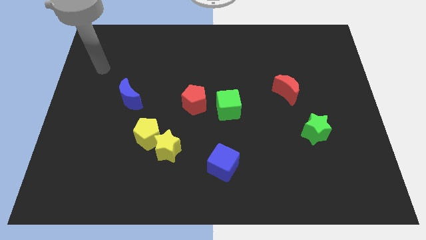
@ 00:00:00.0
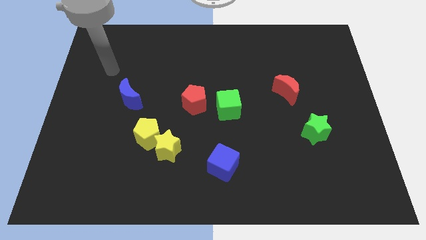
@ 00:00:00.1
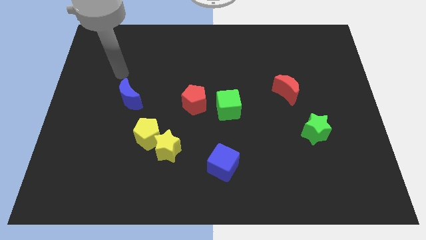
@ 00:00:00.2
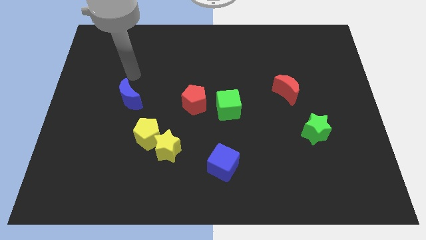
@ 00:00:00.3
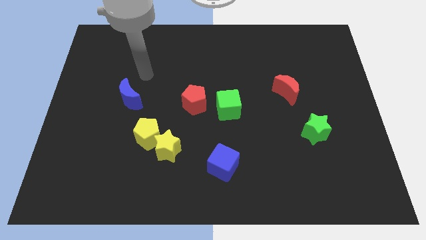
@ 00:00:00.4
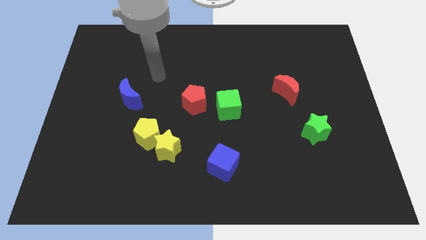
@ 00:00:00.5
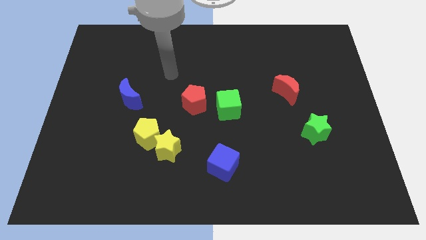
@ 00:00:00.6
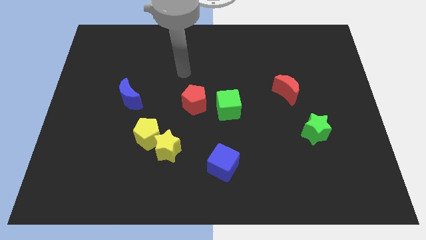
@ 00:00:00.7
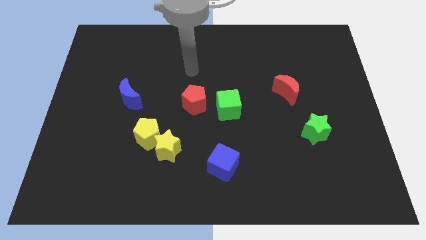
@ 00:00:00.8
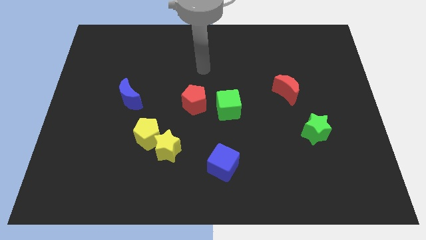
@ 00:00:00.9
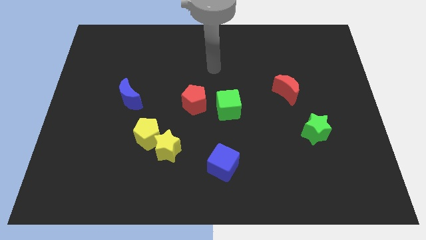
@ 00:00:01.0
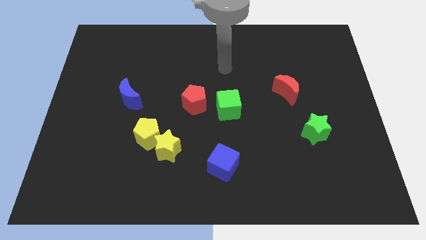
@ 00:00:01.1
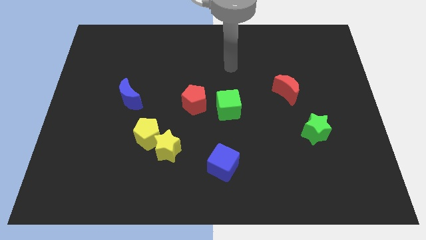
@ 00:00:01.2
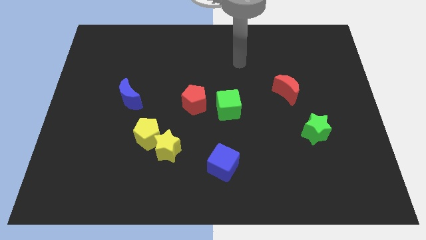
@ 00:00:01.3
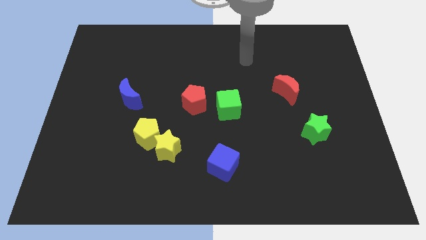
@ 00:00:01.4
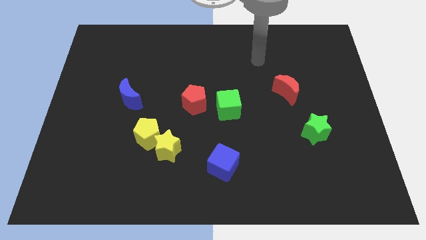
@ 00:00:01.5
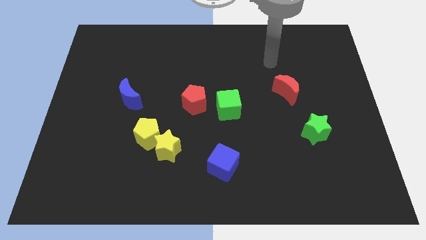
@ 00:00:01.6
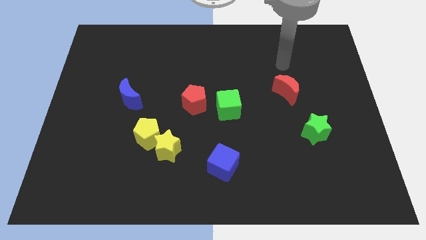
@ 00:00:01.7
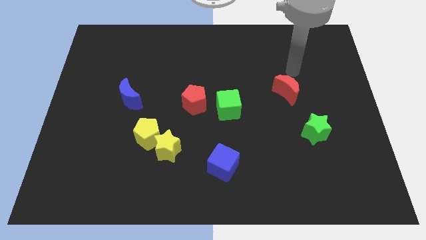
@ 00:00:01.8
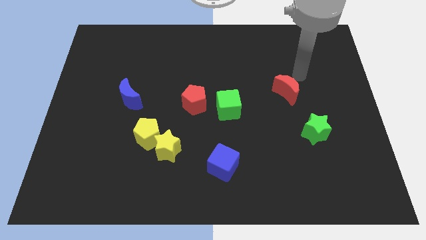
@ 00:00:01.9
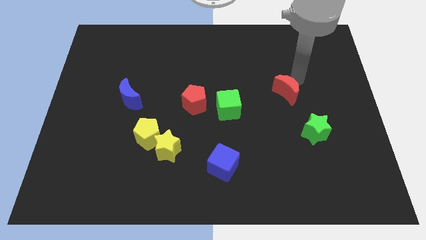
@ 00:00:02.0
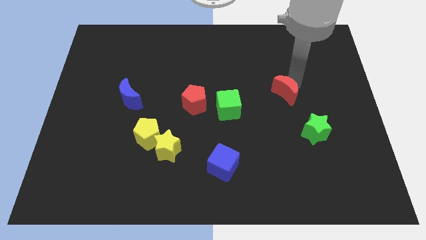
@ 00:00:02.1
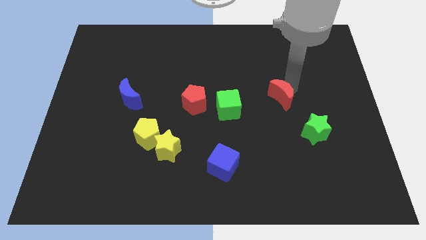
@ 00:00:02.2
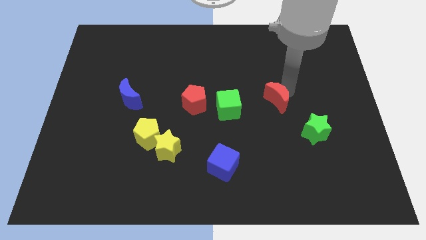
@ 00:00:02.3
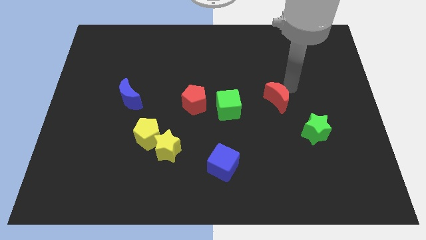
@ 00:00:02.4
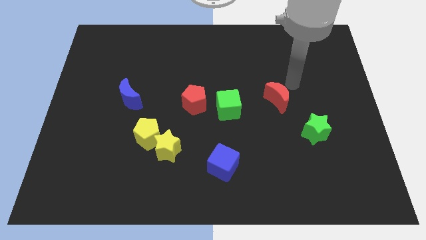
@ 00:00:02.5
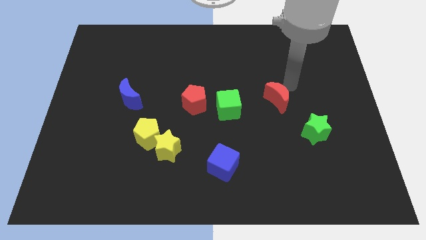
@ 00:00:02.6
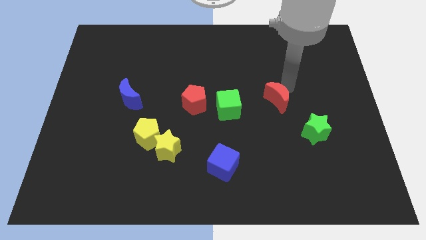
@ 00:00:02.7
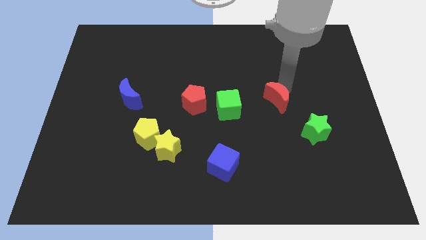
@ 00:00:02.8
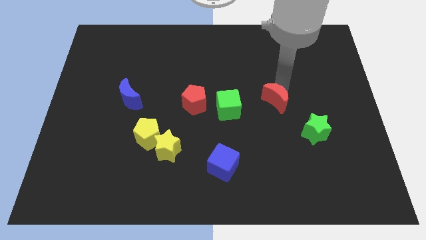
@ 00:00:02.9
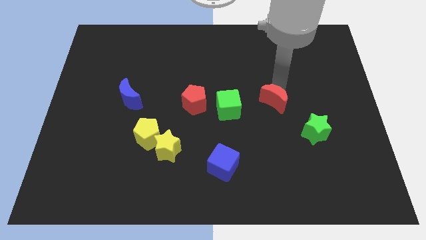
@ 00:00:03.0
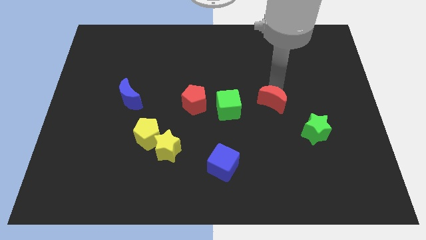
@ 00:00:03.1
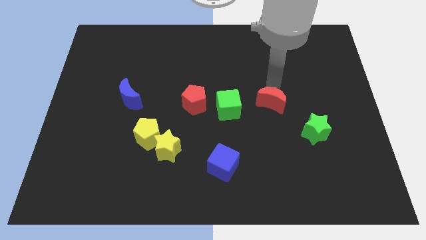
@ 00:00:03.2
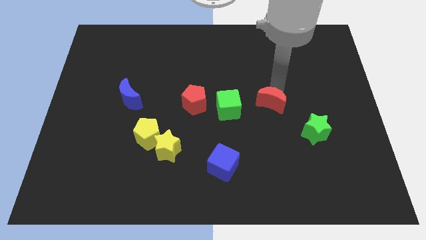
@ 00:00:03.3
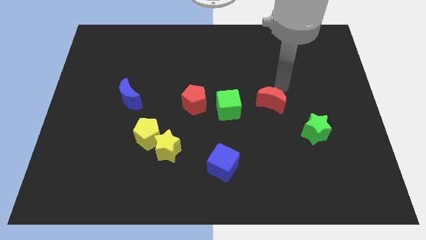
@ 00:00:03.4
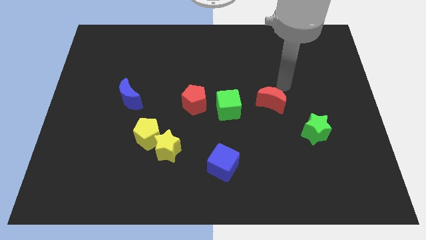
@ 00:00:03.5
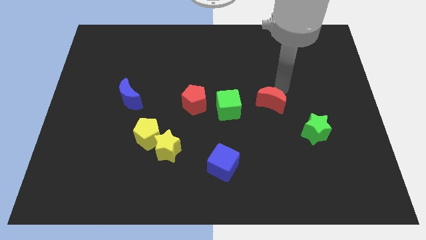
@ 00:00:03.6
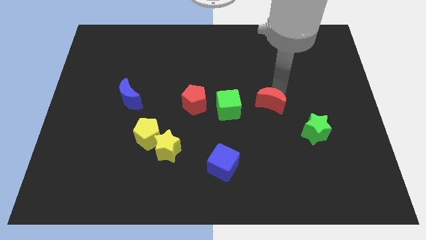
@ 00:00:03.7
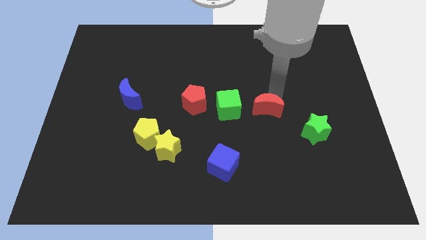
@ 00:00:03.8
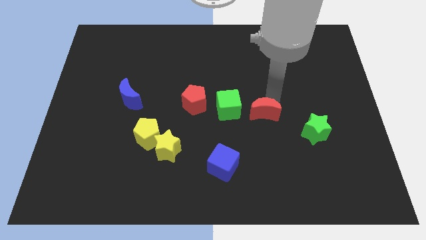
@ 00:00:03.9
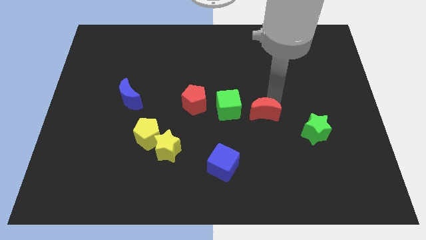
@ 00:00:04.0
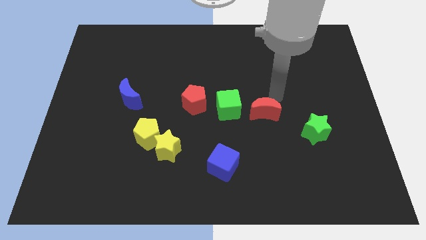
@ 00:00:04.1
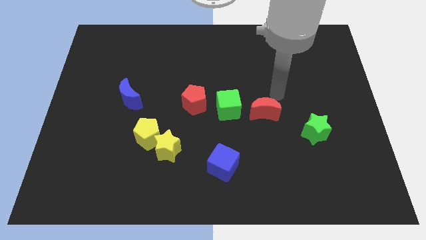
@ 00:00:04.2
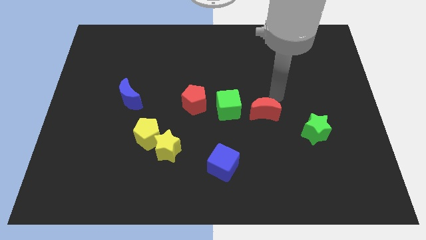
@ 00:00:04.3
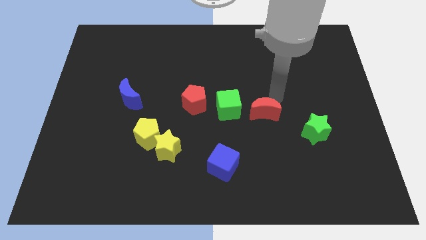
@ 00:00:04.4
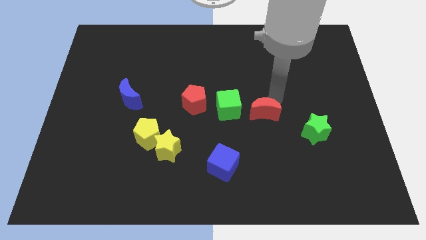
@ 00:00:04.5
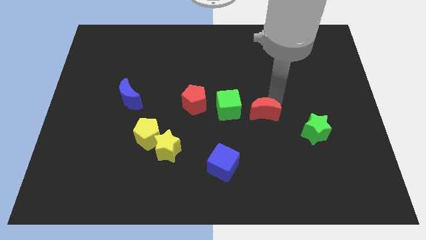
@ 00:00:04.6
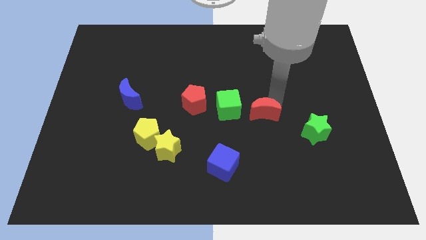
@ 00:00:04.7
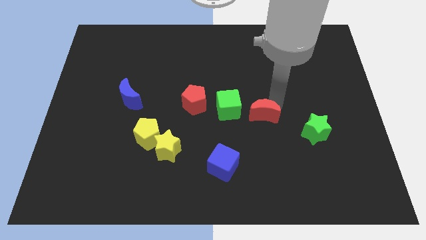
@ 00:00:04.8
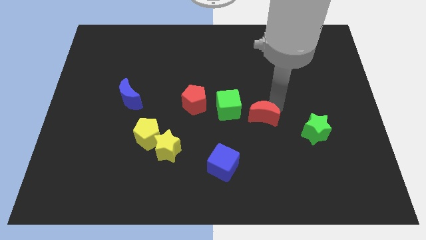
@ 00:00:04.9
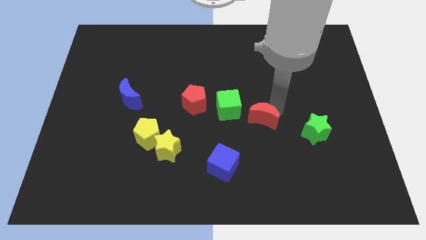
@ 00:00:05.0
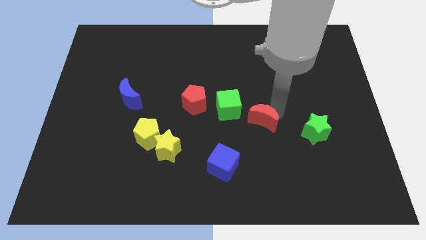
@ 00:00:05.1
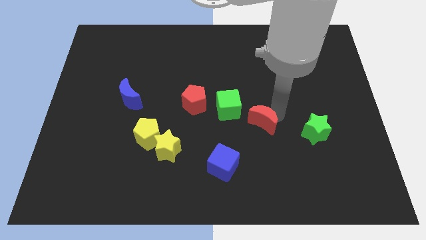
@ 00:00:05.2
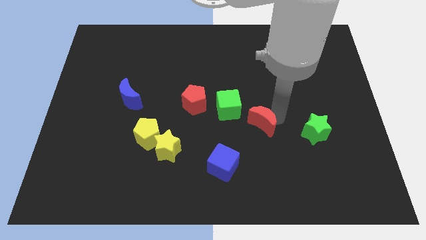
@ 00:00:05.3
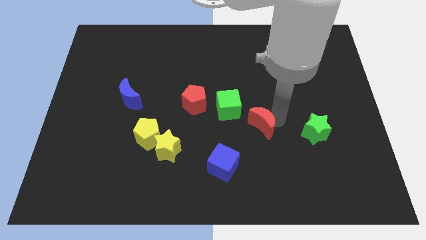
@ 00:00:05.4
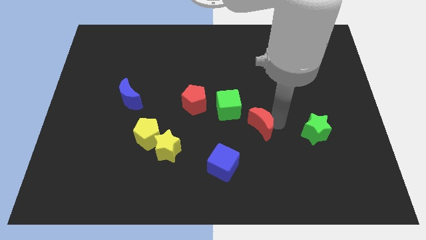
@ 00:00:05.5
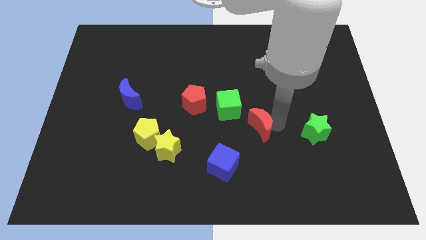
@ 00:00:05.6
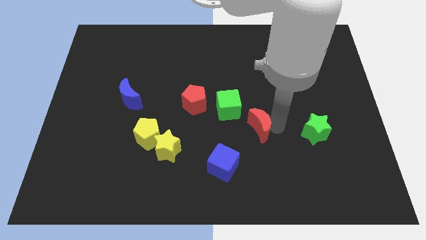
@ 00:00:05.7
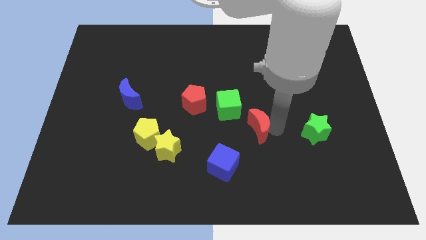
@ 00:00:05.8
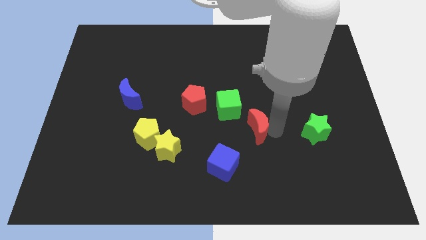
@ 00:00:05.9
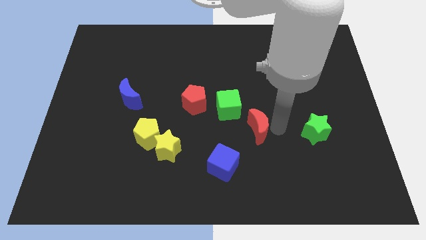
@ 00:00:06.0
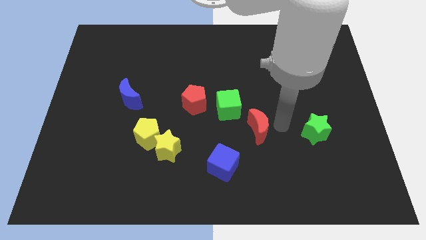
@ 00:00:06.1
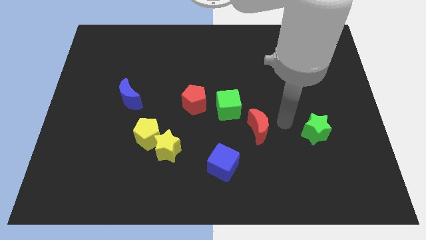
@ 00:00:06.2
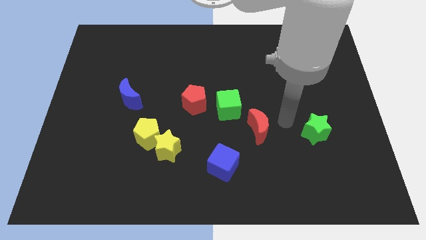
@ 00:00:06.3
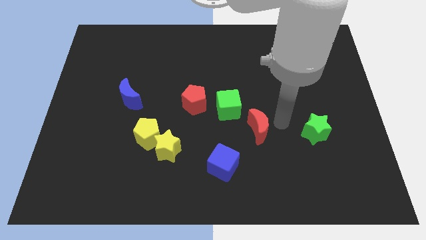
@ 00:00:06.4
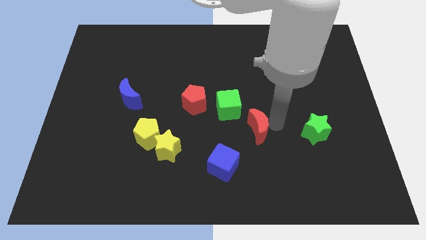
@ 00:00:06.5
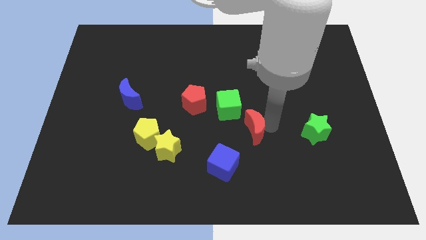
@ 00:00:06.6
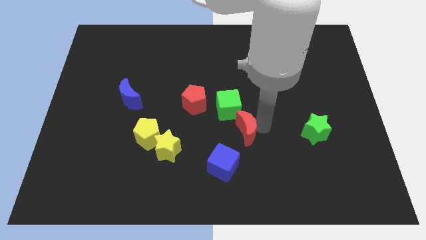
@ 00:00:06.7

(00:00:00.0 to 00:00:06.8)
move the red moon to the bottom of the green cube
